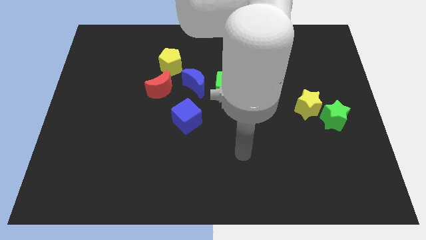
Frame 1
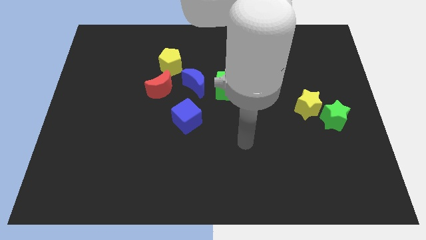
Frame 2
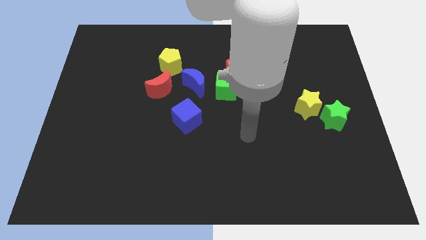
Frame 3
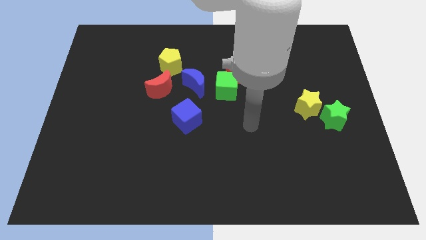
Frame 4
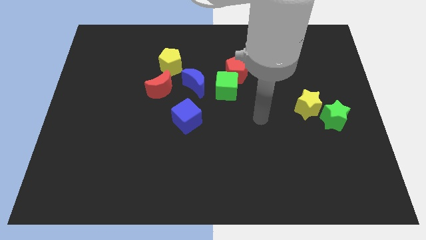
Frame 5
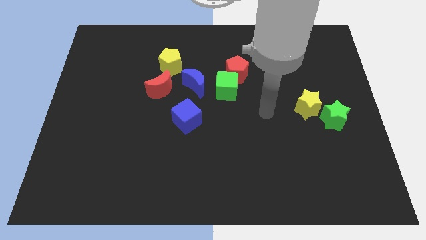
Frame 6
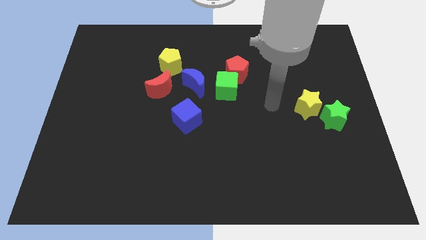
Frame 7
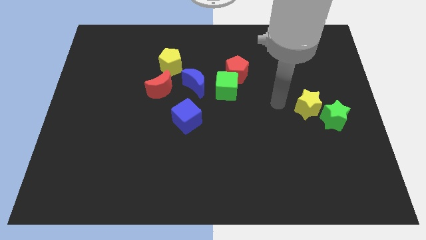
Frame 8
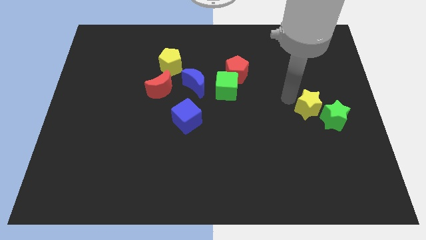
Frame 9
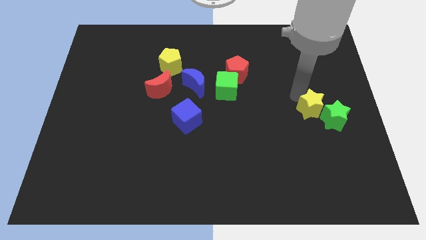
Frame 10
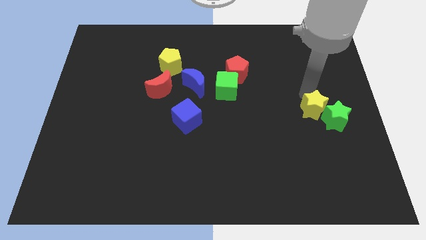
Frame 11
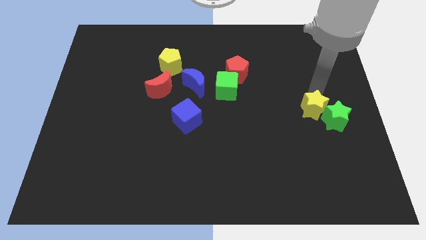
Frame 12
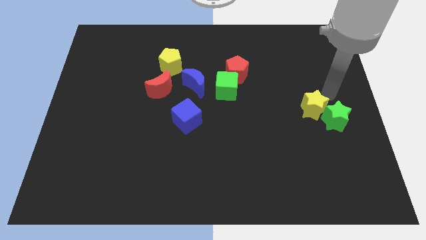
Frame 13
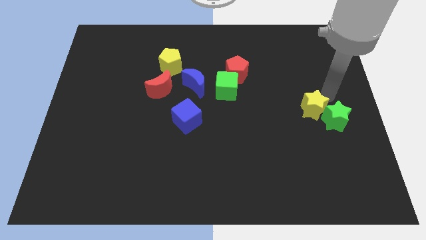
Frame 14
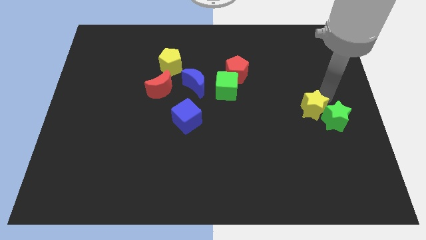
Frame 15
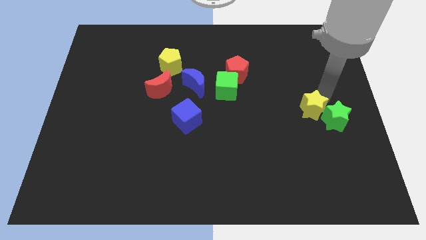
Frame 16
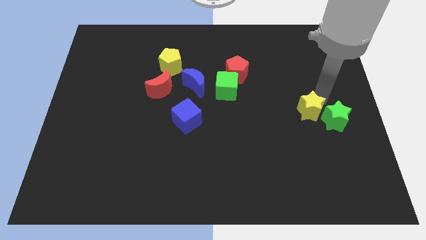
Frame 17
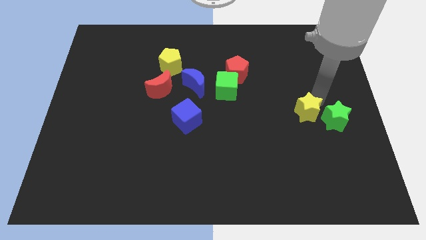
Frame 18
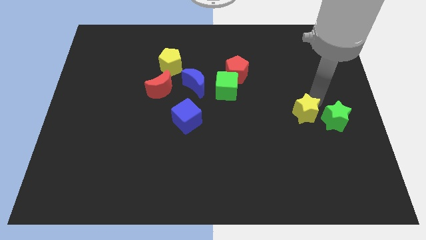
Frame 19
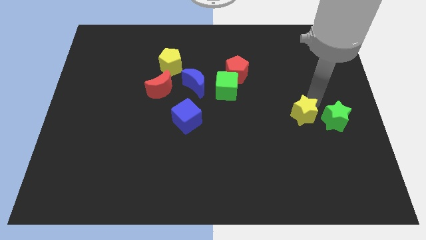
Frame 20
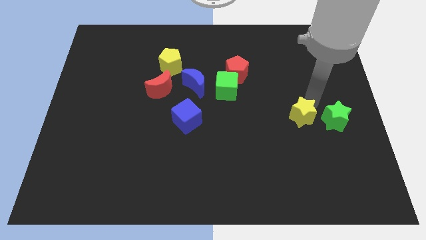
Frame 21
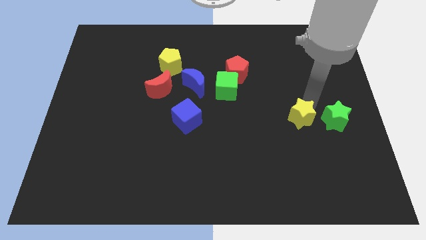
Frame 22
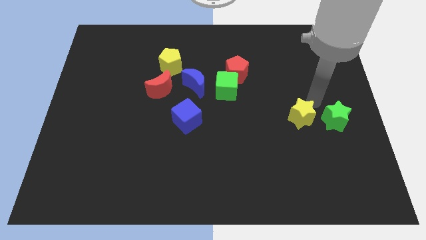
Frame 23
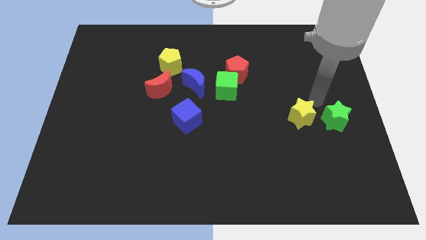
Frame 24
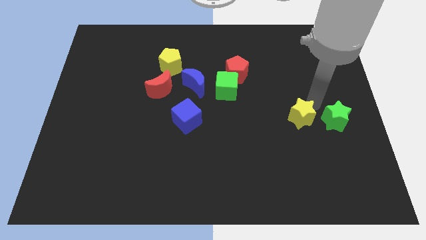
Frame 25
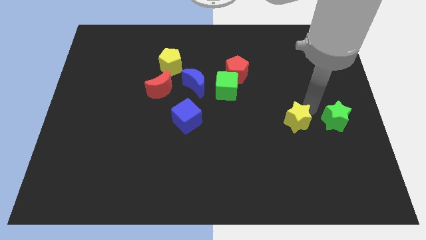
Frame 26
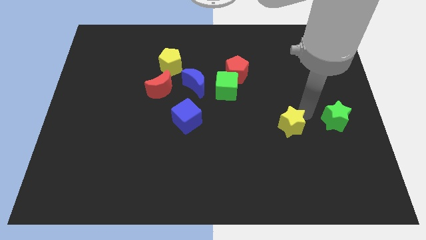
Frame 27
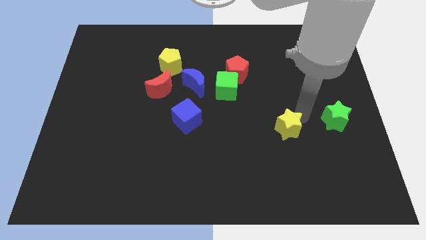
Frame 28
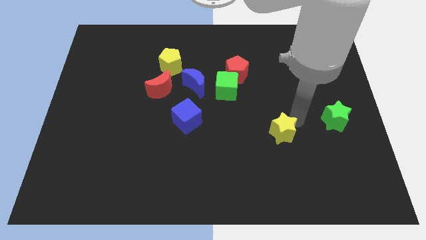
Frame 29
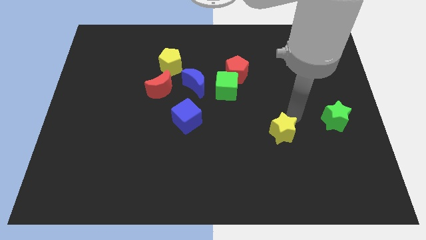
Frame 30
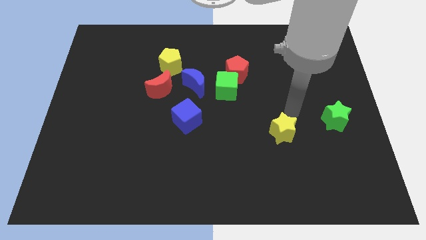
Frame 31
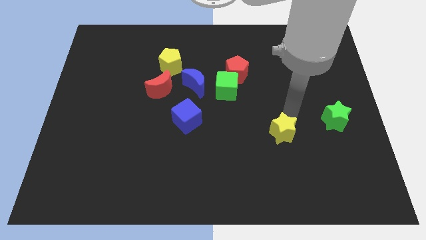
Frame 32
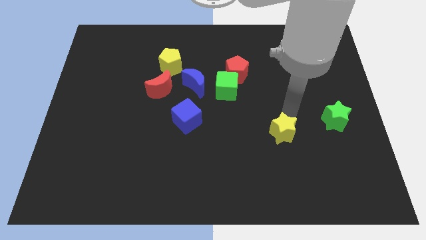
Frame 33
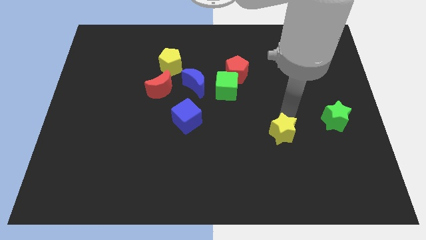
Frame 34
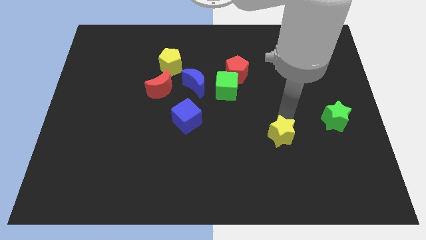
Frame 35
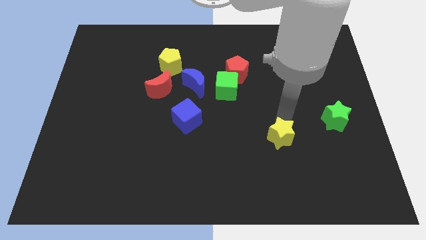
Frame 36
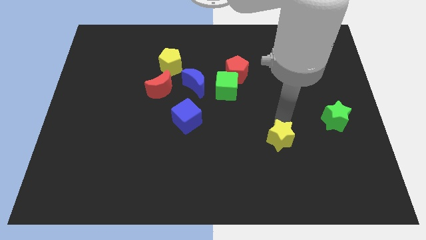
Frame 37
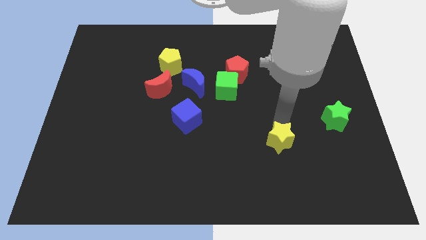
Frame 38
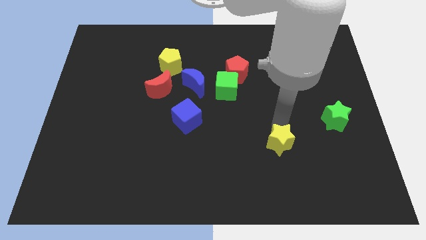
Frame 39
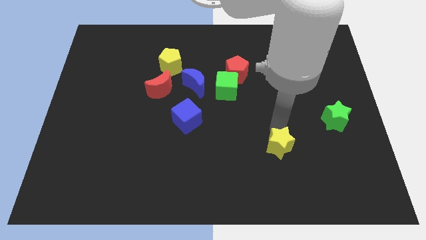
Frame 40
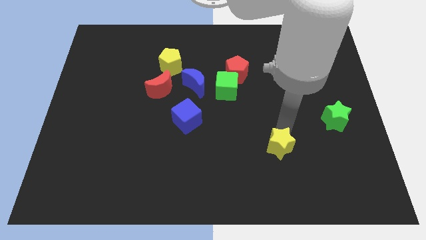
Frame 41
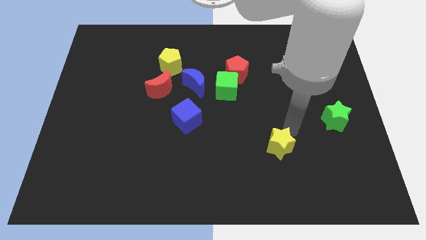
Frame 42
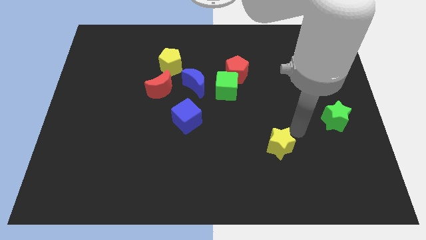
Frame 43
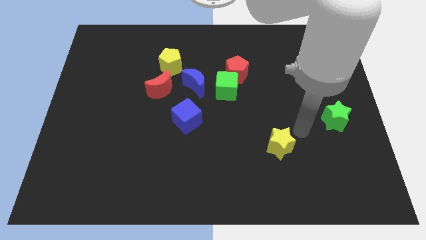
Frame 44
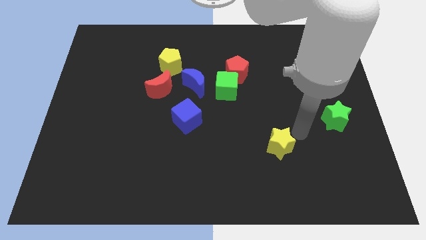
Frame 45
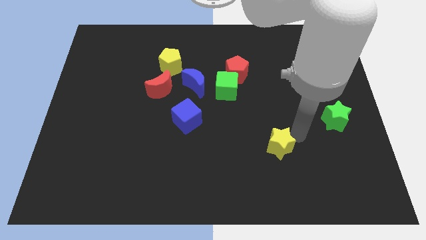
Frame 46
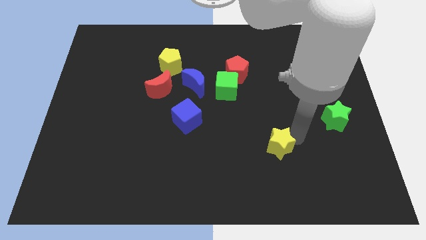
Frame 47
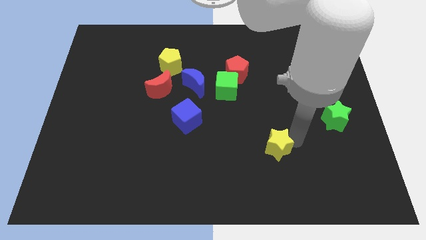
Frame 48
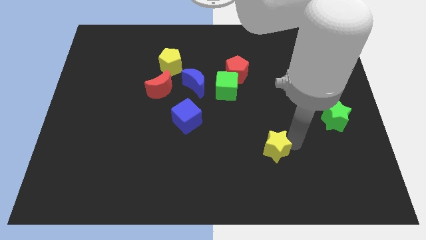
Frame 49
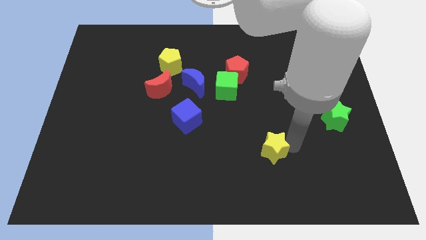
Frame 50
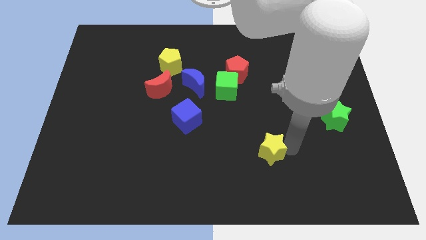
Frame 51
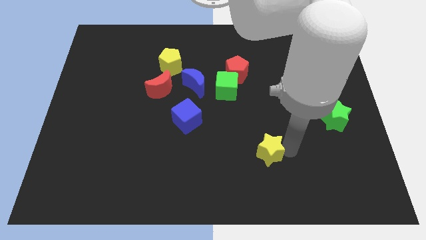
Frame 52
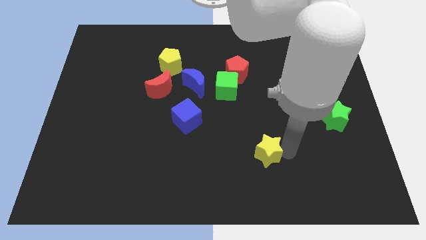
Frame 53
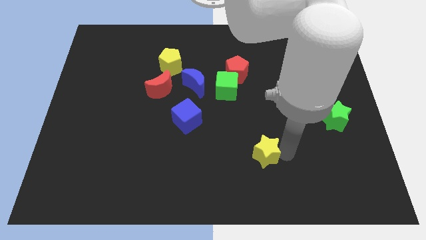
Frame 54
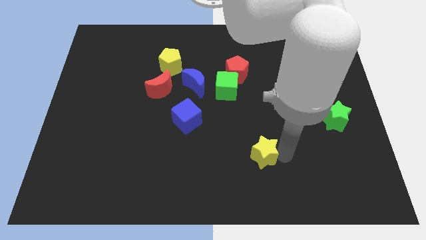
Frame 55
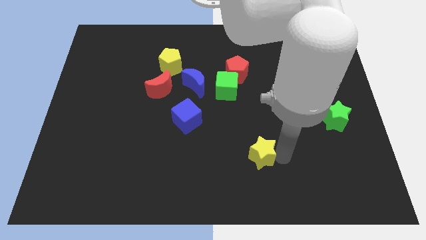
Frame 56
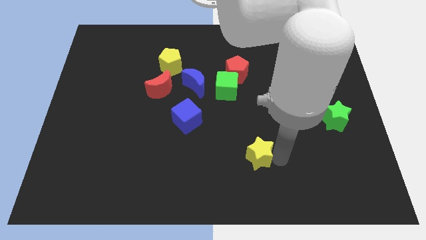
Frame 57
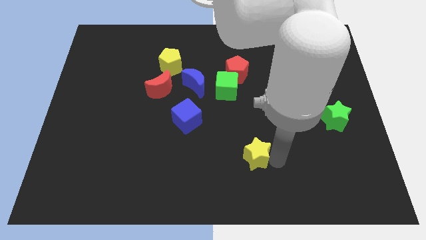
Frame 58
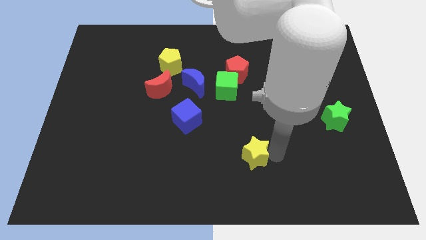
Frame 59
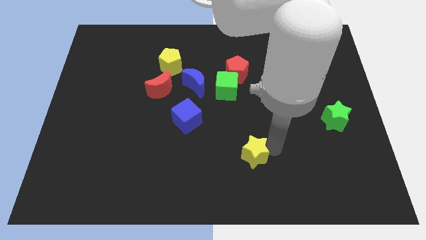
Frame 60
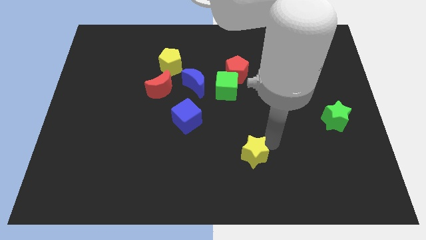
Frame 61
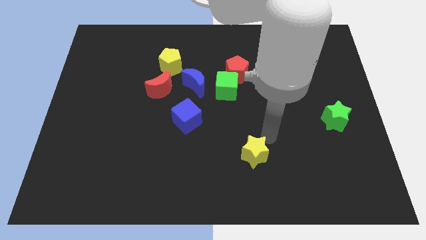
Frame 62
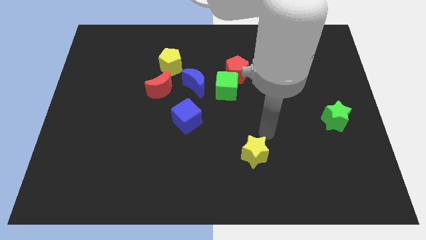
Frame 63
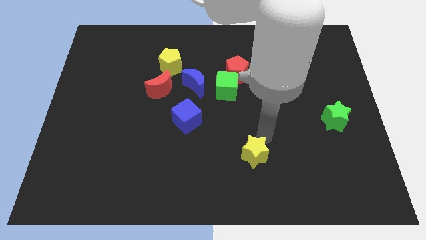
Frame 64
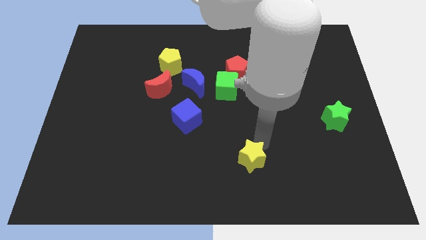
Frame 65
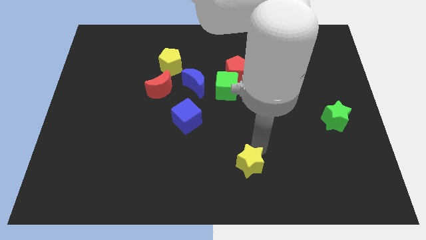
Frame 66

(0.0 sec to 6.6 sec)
move the yellow star to the bottom
